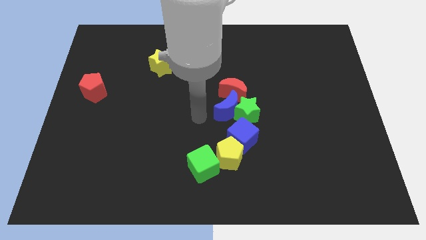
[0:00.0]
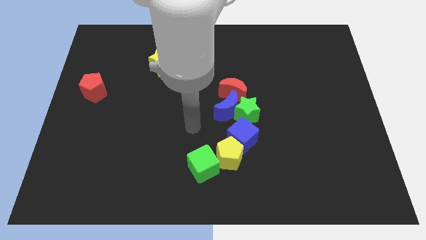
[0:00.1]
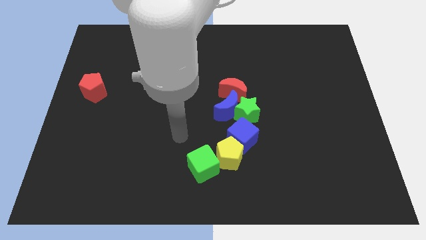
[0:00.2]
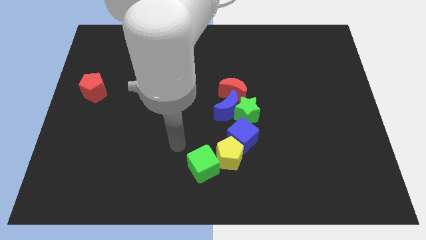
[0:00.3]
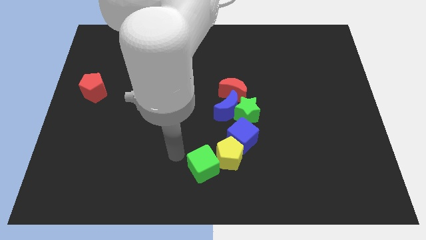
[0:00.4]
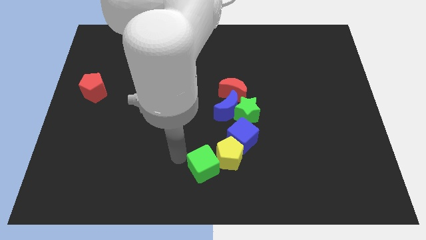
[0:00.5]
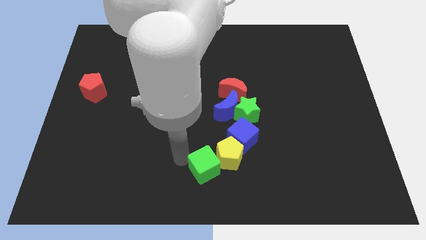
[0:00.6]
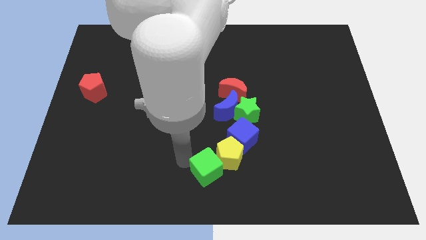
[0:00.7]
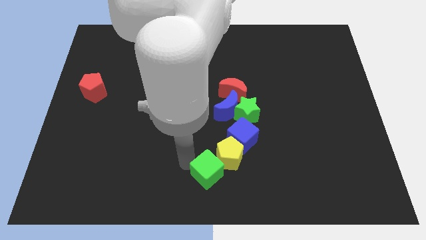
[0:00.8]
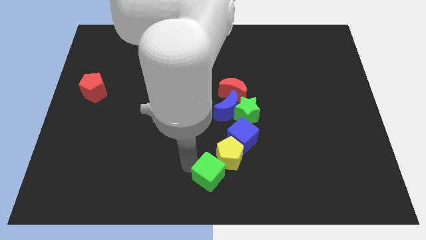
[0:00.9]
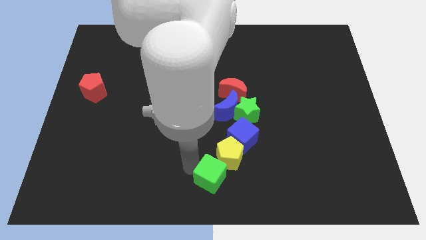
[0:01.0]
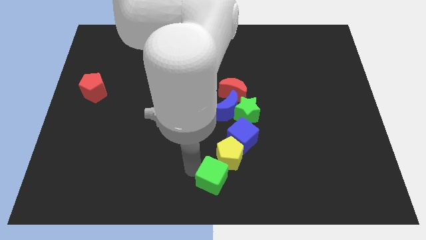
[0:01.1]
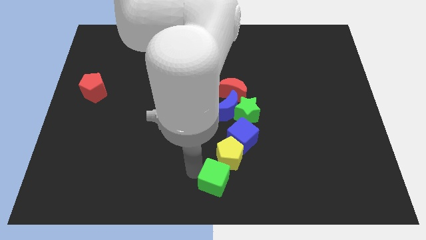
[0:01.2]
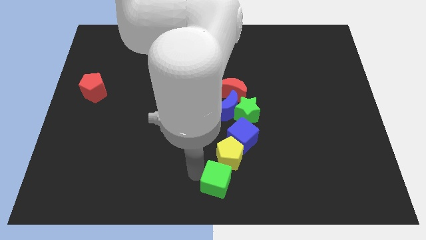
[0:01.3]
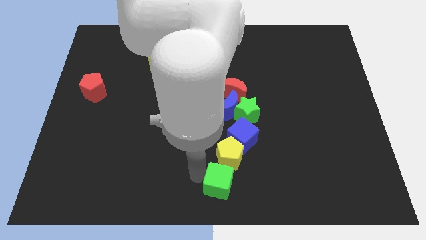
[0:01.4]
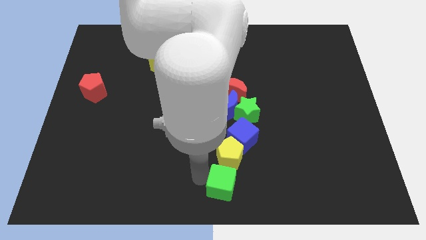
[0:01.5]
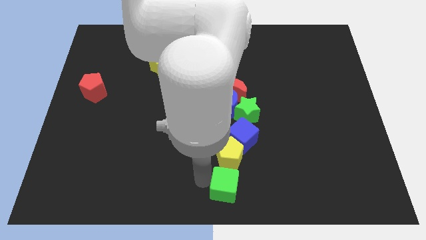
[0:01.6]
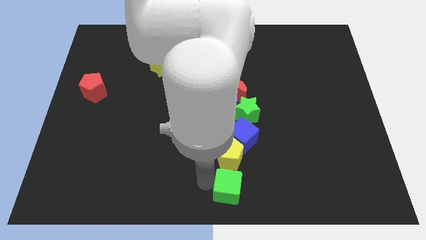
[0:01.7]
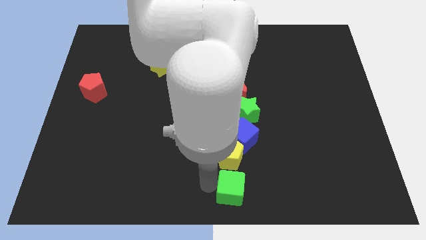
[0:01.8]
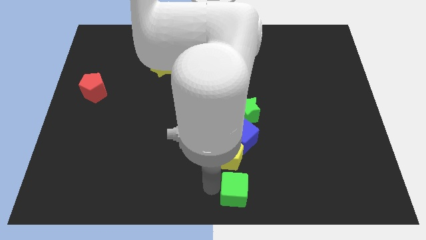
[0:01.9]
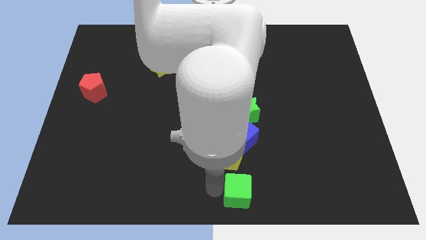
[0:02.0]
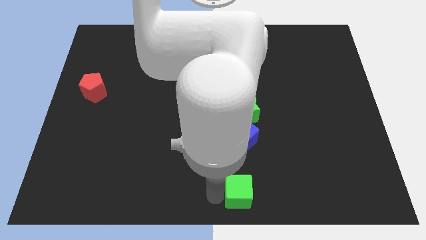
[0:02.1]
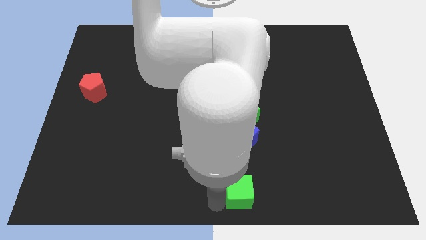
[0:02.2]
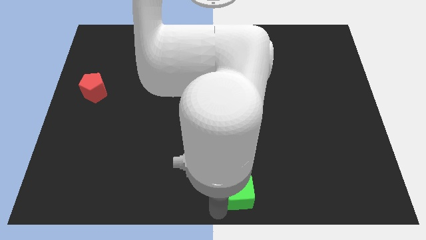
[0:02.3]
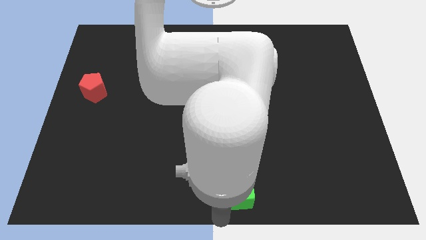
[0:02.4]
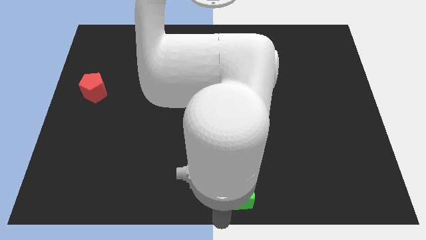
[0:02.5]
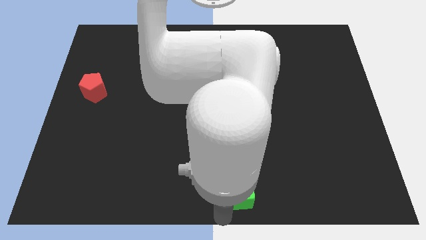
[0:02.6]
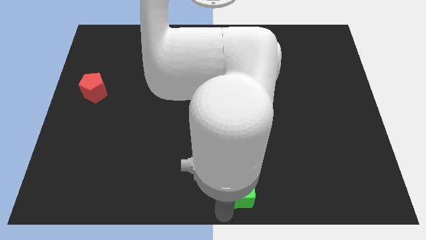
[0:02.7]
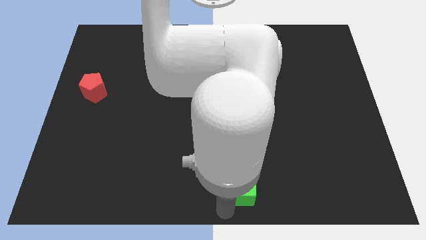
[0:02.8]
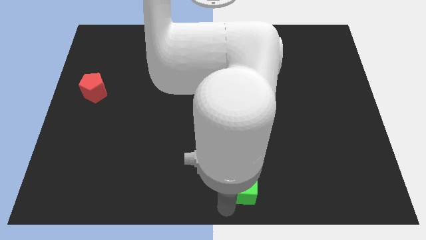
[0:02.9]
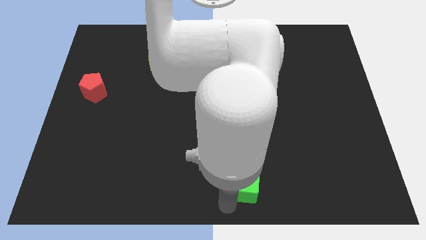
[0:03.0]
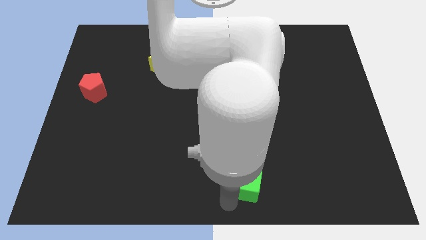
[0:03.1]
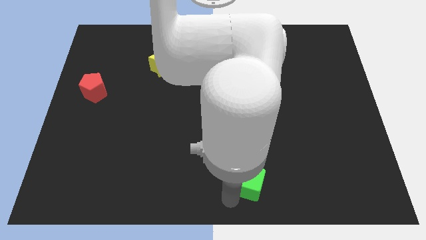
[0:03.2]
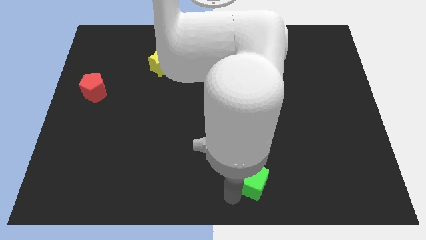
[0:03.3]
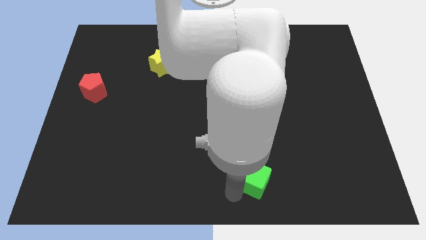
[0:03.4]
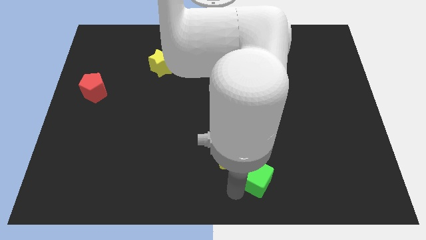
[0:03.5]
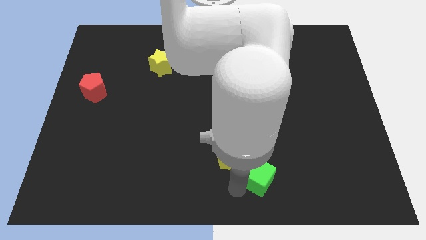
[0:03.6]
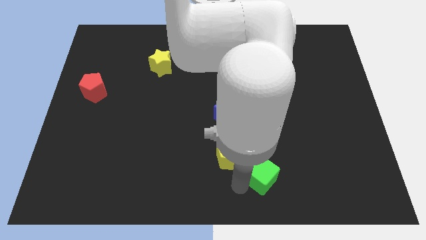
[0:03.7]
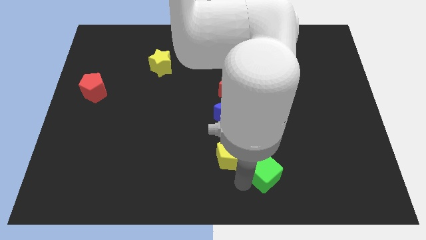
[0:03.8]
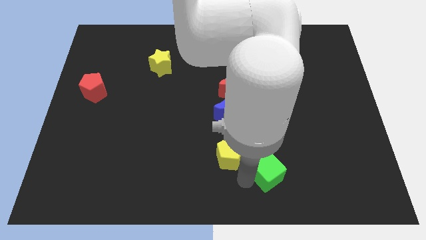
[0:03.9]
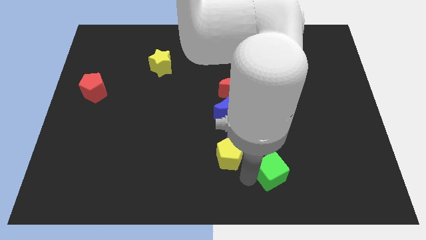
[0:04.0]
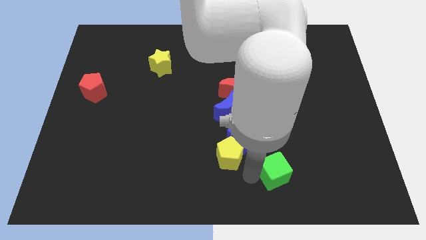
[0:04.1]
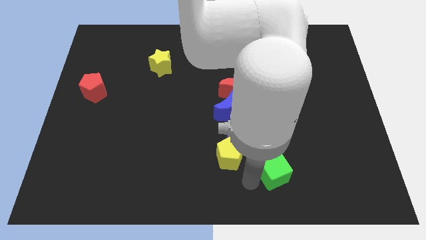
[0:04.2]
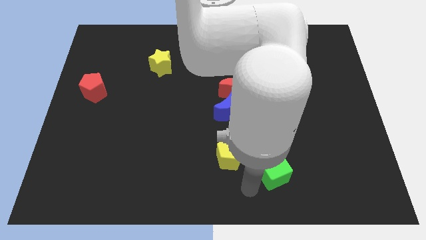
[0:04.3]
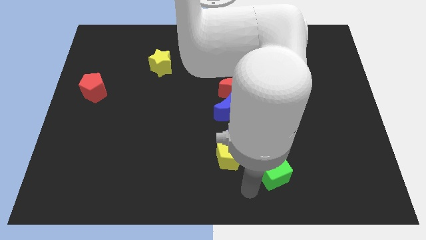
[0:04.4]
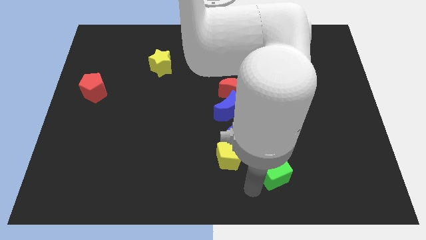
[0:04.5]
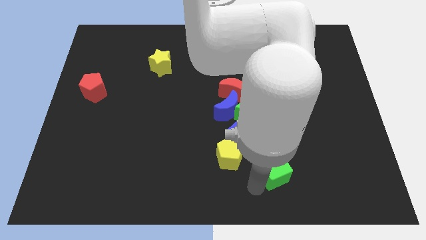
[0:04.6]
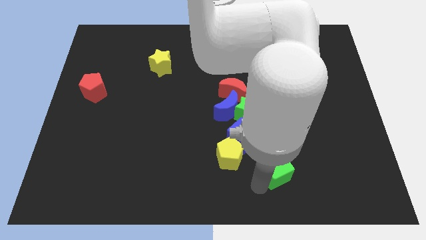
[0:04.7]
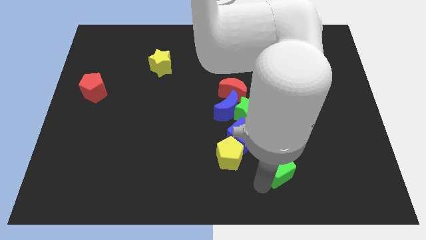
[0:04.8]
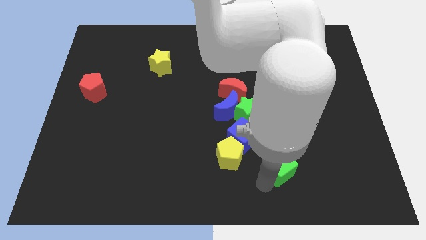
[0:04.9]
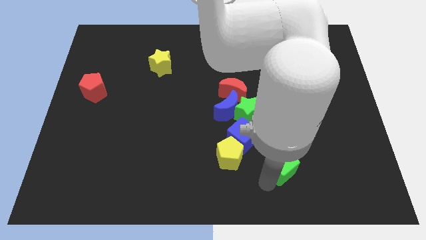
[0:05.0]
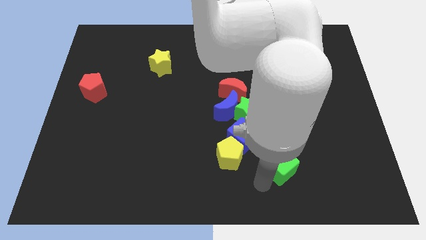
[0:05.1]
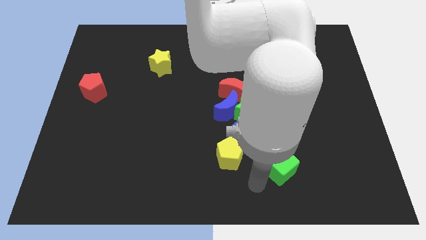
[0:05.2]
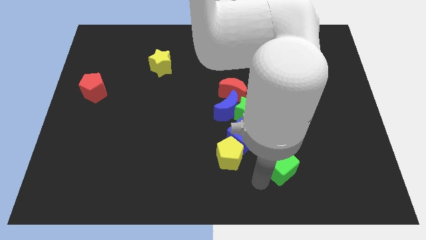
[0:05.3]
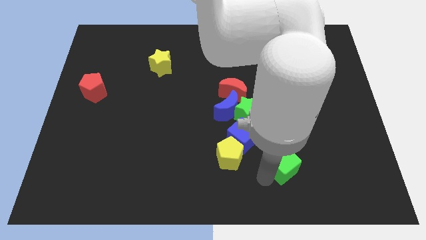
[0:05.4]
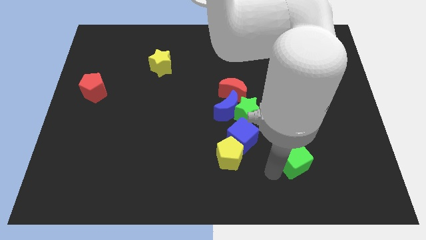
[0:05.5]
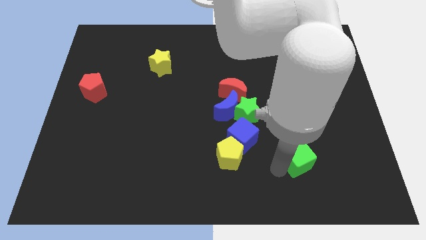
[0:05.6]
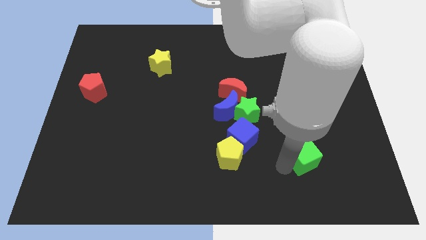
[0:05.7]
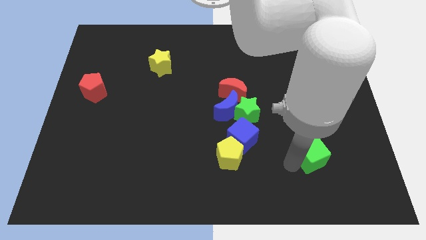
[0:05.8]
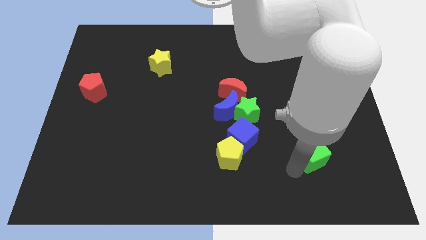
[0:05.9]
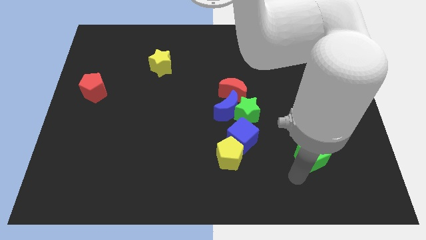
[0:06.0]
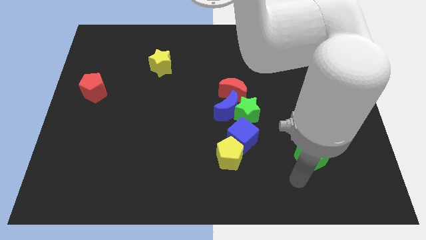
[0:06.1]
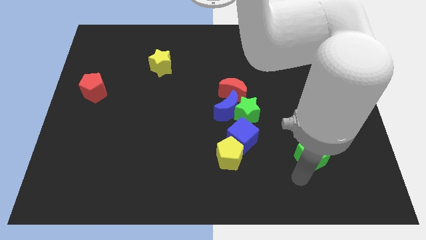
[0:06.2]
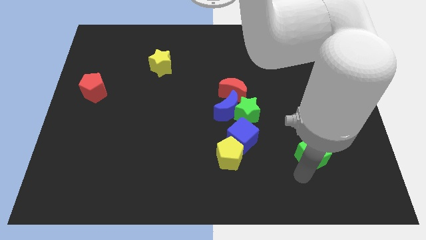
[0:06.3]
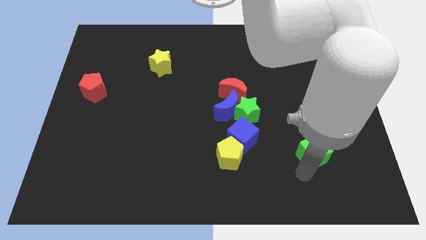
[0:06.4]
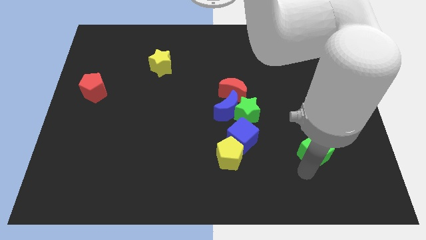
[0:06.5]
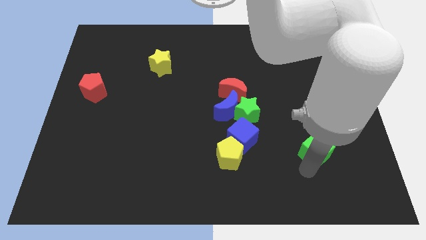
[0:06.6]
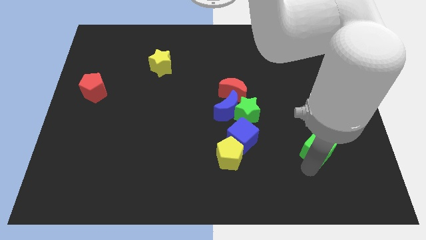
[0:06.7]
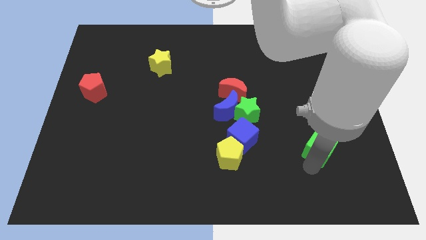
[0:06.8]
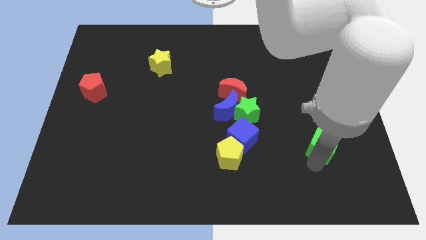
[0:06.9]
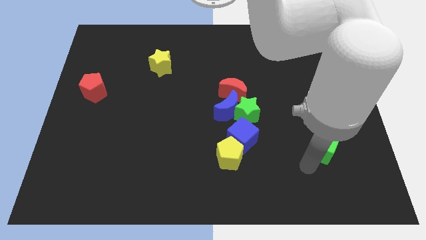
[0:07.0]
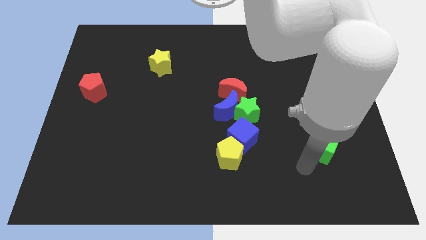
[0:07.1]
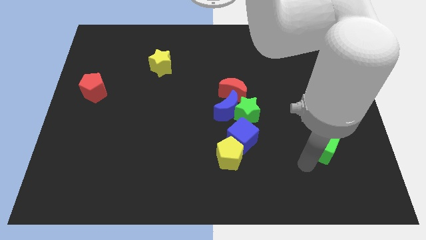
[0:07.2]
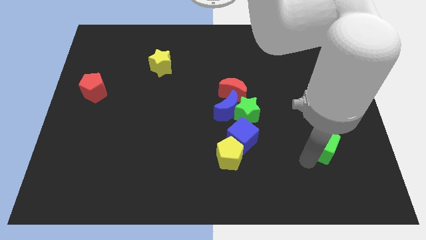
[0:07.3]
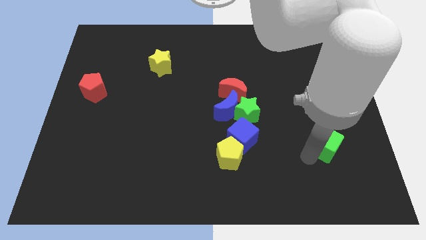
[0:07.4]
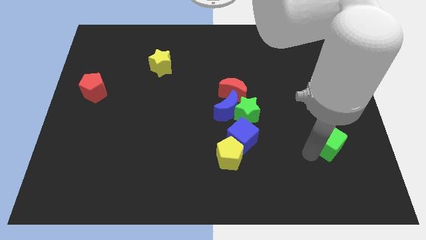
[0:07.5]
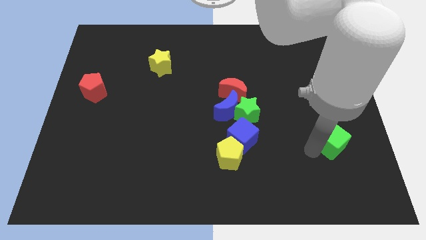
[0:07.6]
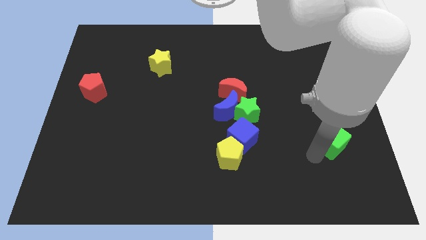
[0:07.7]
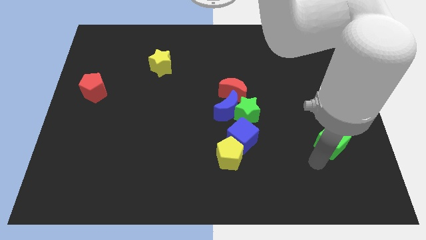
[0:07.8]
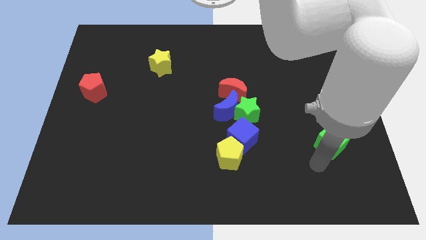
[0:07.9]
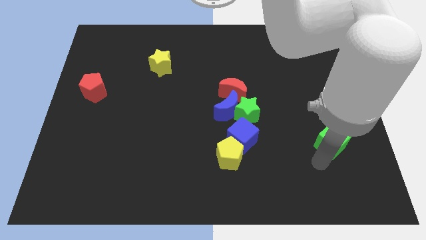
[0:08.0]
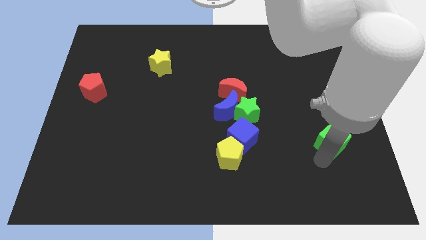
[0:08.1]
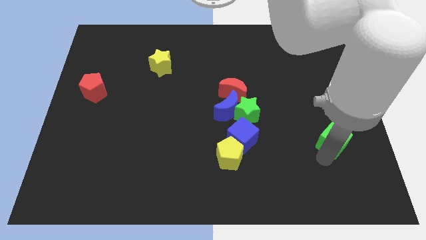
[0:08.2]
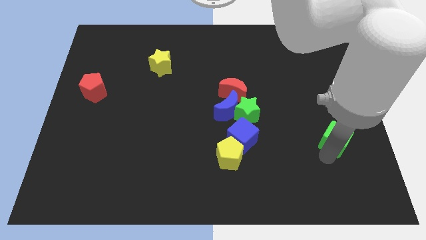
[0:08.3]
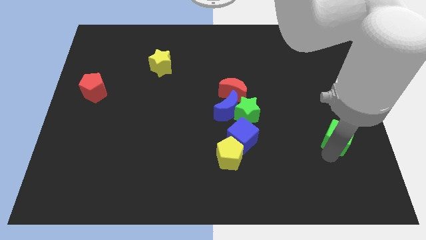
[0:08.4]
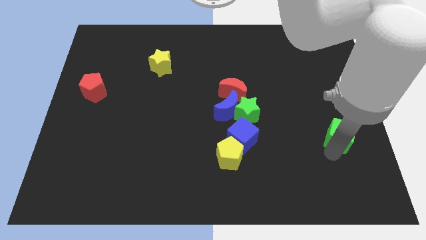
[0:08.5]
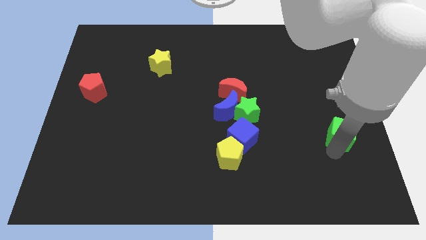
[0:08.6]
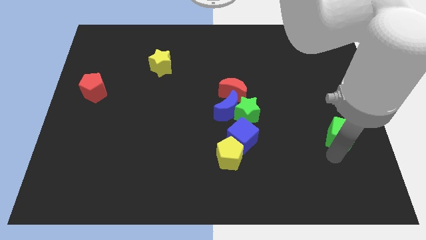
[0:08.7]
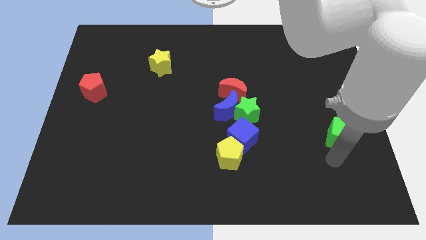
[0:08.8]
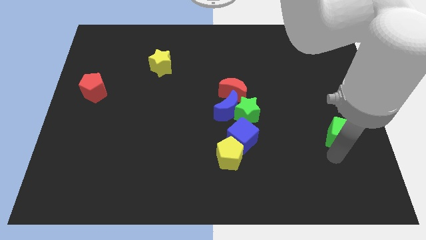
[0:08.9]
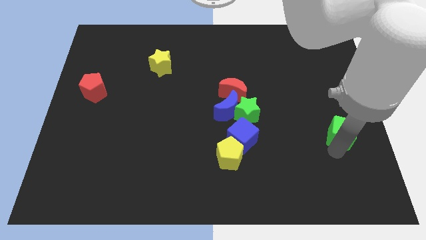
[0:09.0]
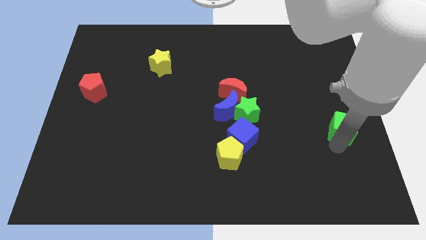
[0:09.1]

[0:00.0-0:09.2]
slide the green cube to the center right
